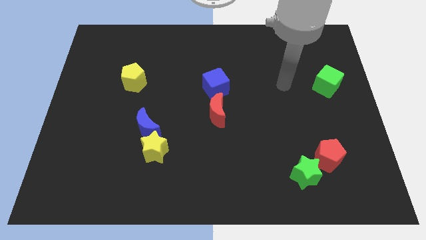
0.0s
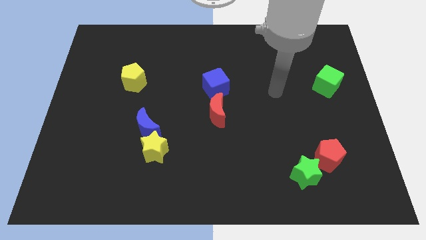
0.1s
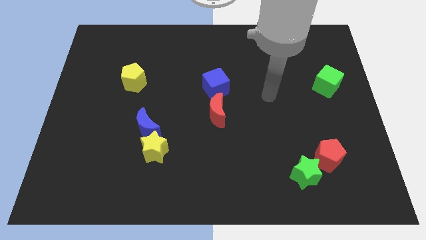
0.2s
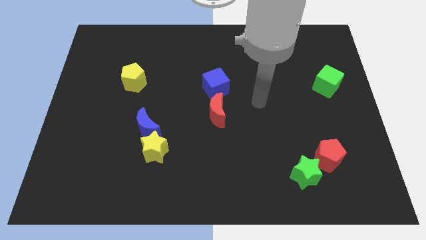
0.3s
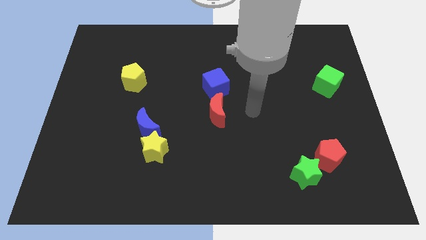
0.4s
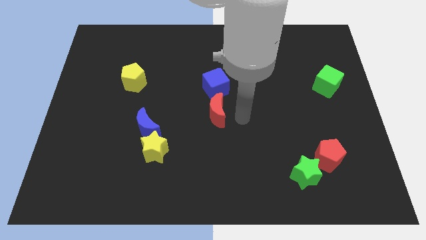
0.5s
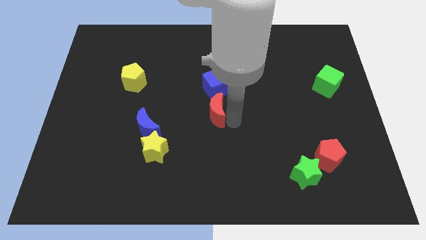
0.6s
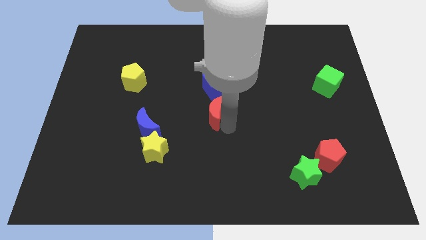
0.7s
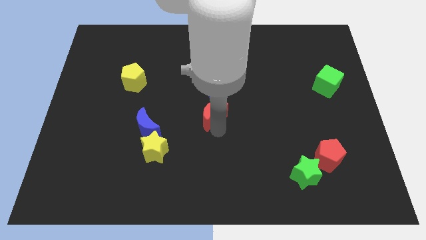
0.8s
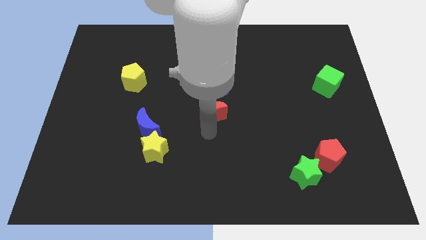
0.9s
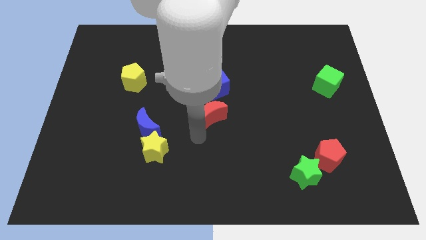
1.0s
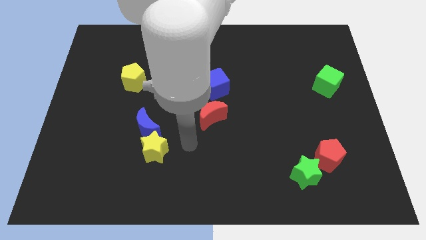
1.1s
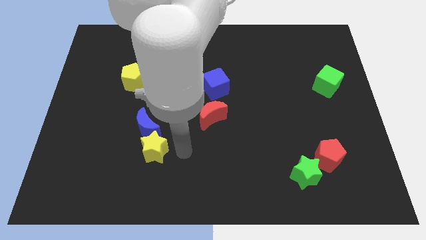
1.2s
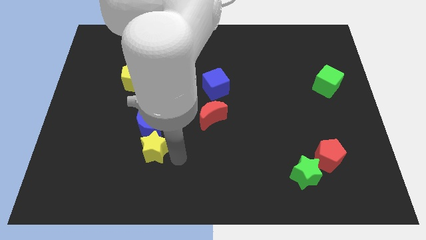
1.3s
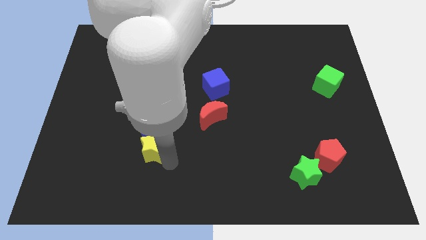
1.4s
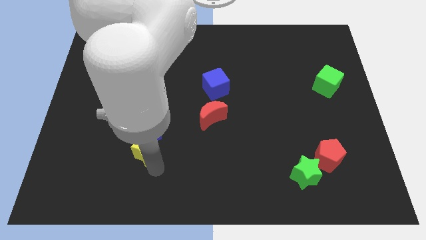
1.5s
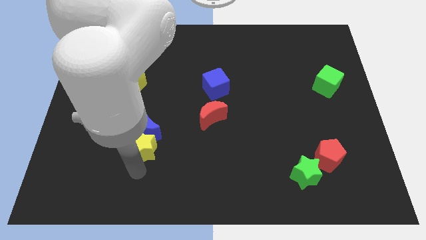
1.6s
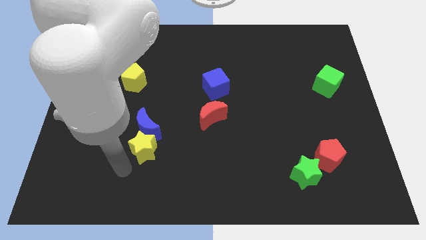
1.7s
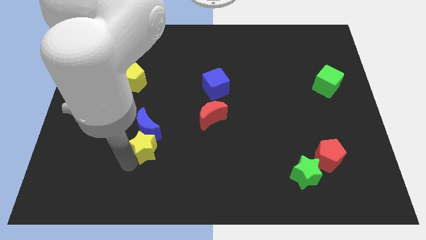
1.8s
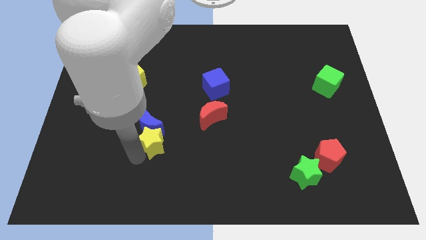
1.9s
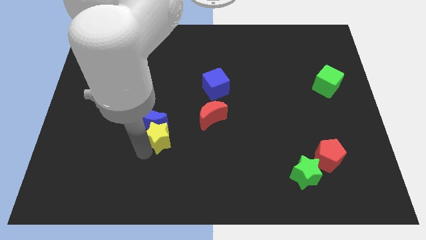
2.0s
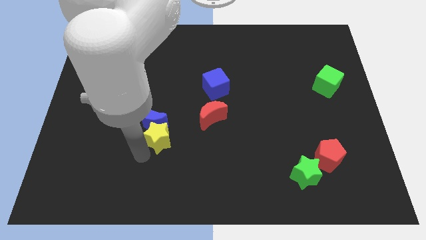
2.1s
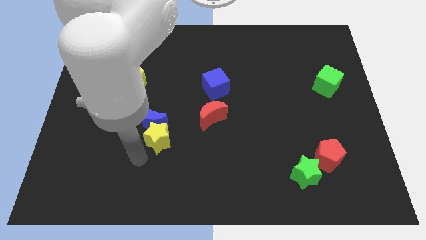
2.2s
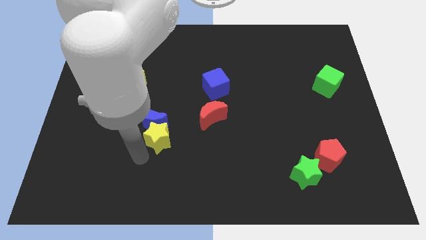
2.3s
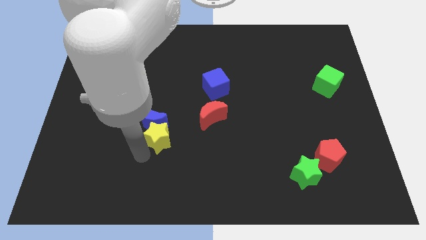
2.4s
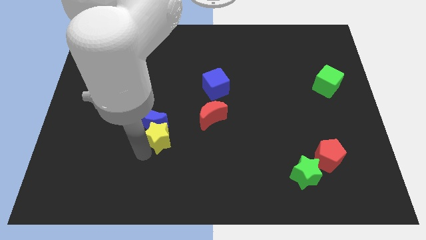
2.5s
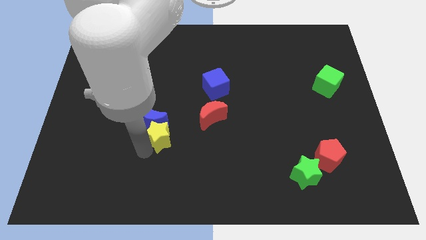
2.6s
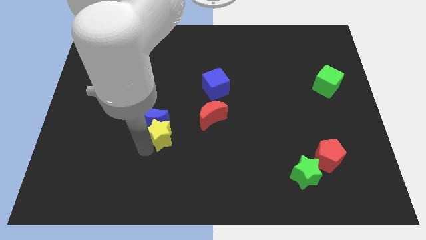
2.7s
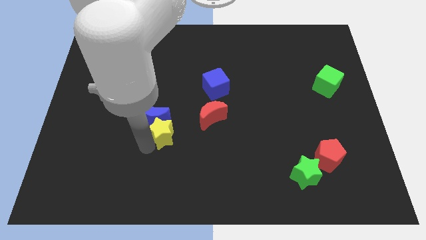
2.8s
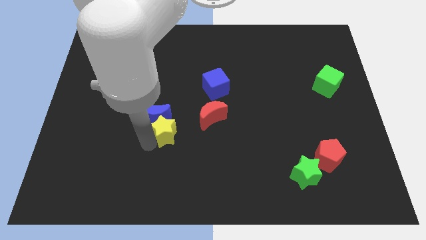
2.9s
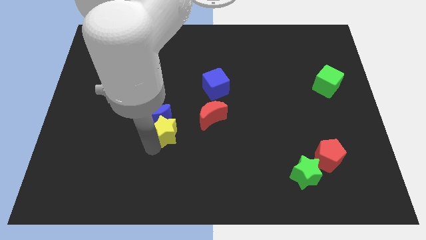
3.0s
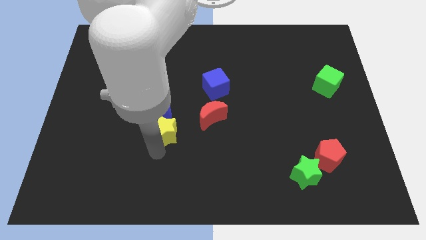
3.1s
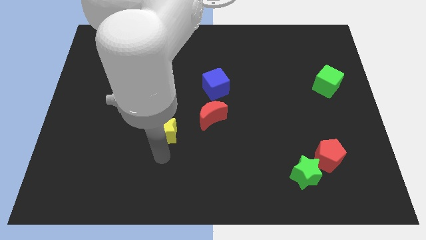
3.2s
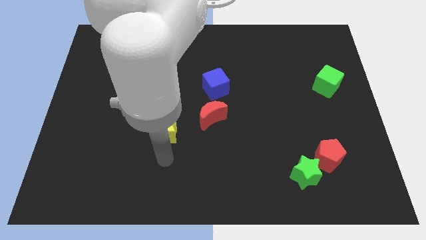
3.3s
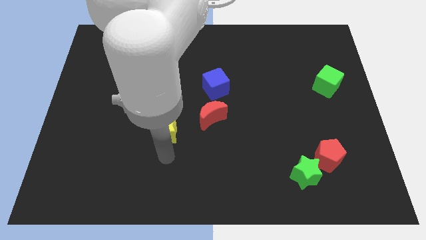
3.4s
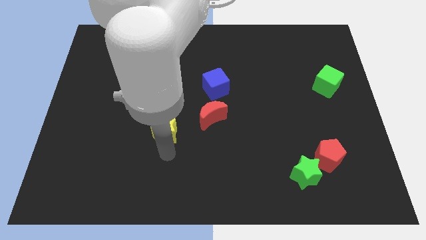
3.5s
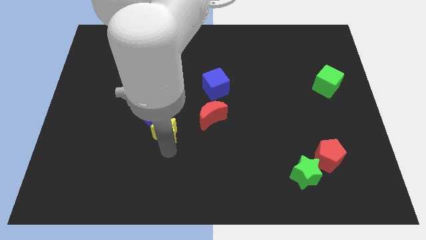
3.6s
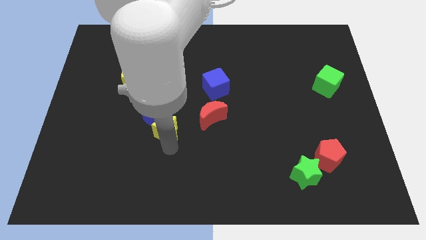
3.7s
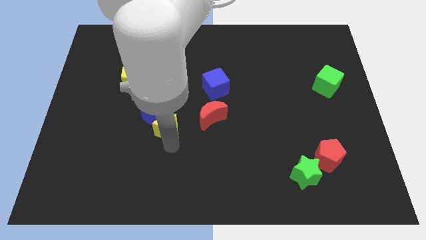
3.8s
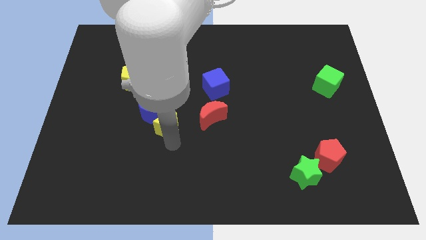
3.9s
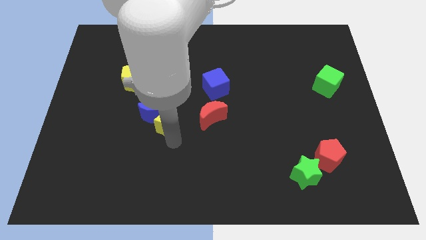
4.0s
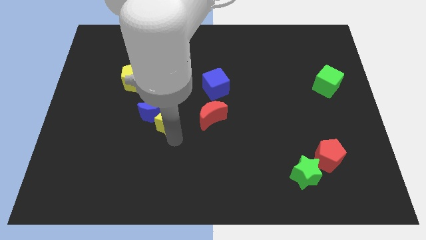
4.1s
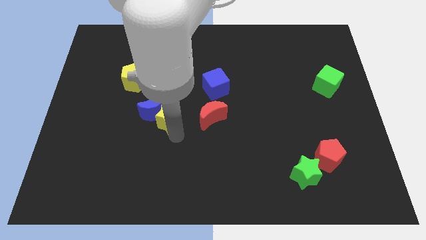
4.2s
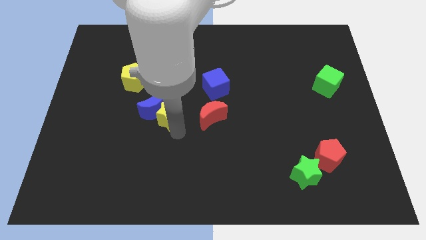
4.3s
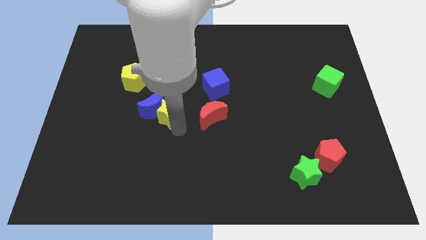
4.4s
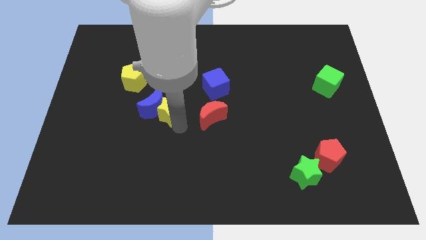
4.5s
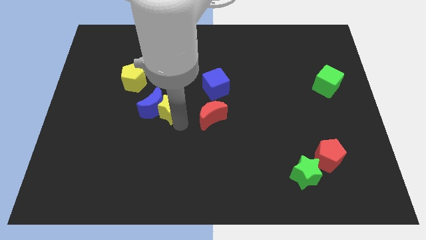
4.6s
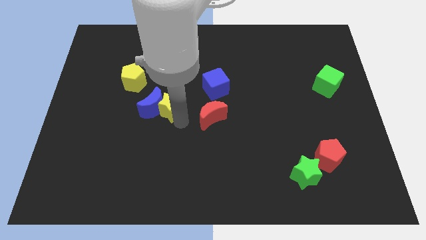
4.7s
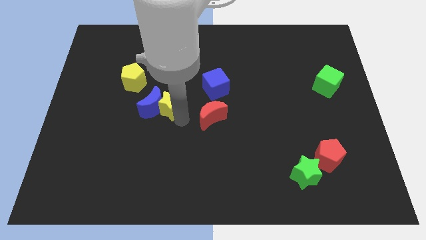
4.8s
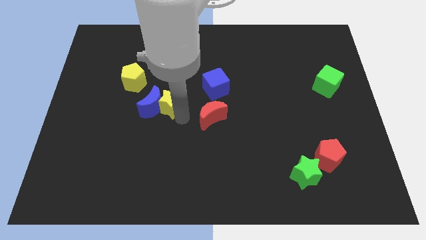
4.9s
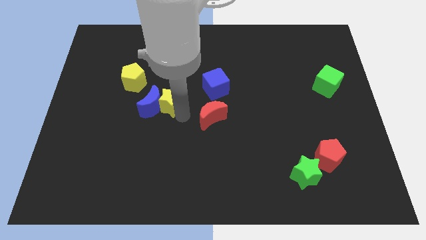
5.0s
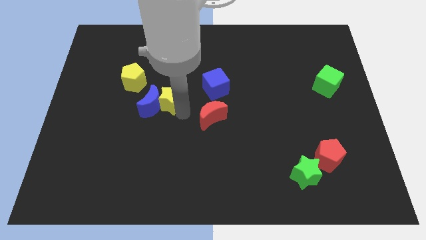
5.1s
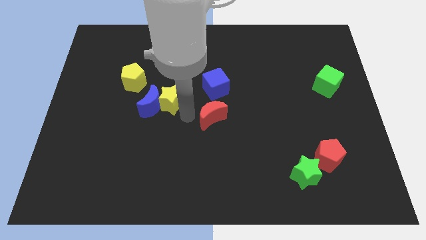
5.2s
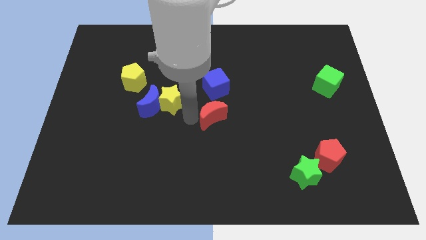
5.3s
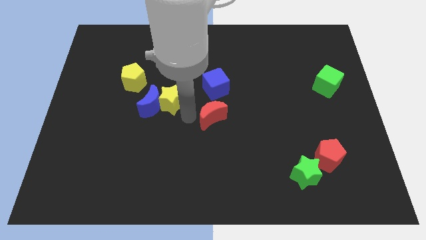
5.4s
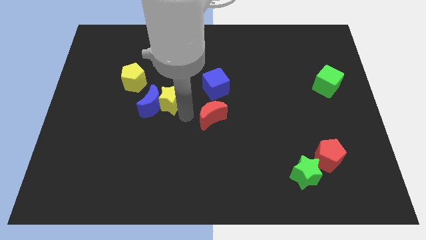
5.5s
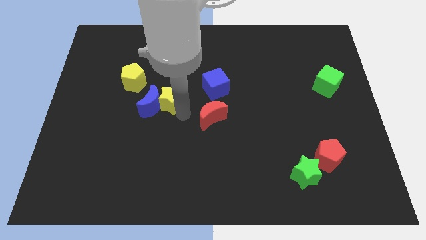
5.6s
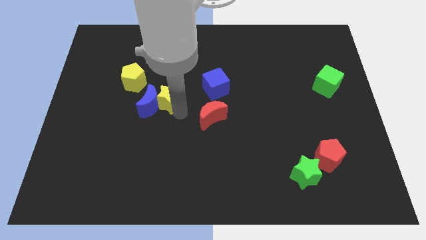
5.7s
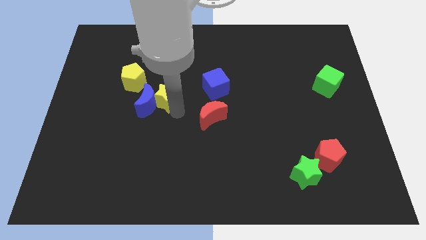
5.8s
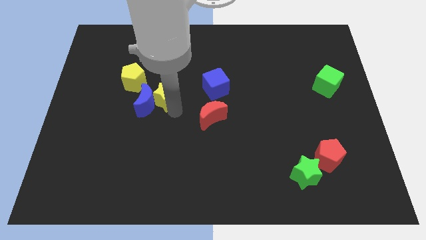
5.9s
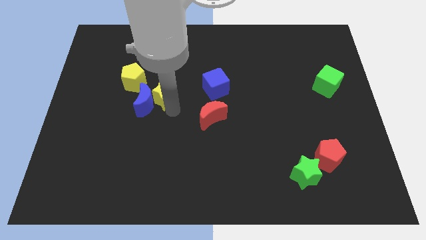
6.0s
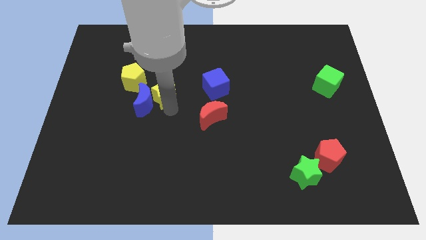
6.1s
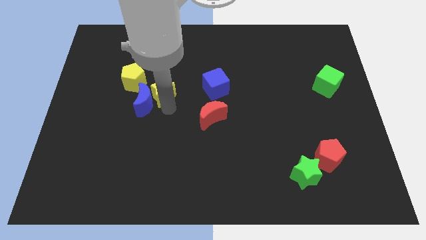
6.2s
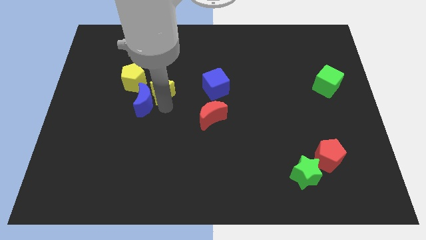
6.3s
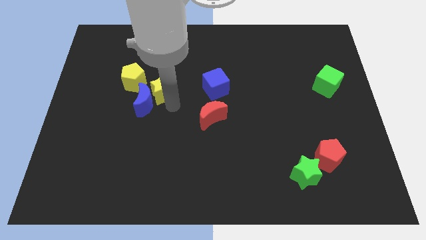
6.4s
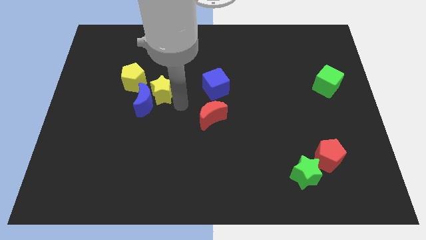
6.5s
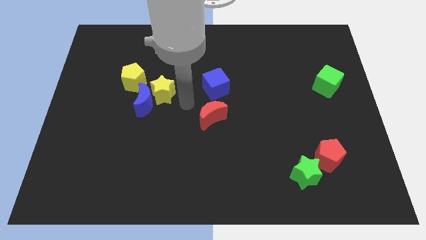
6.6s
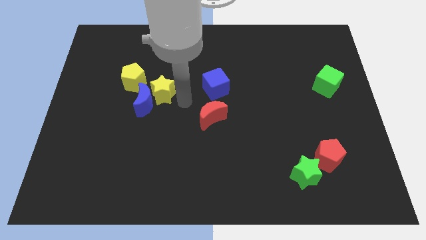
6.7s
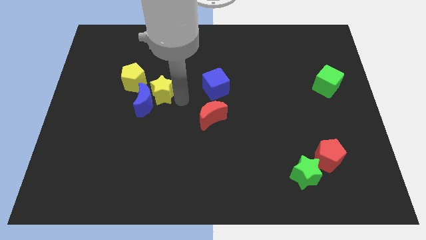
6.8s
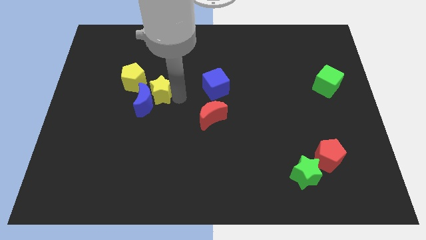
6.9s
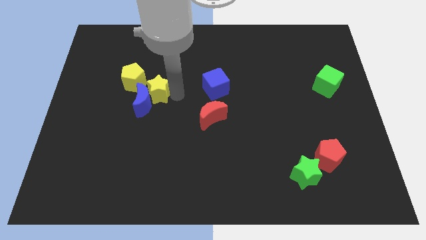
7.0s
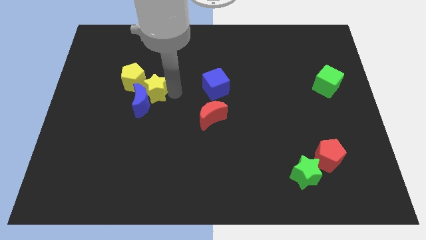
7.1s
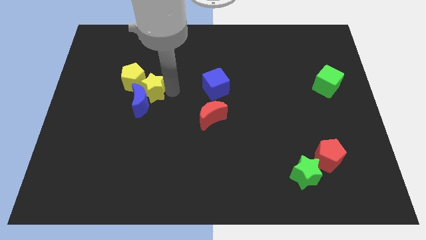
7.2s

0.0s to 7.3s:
slide the yellow star towards the yellow pentagon
